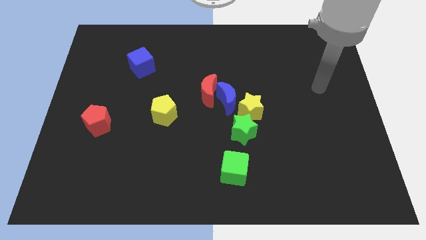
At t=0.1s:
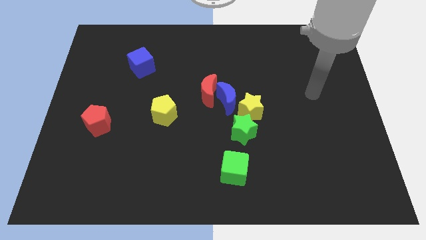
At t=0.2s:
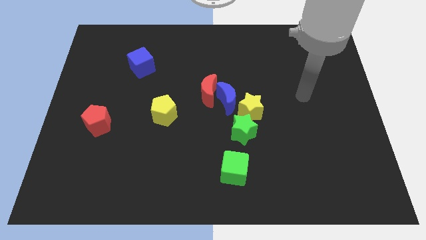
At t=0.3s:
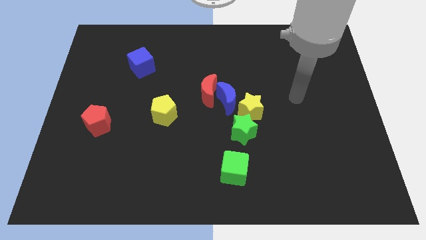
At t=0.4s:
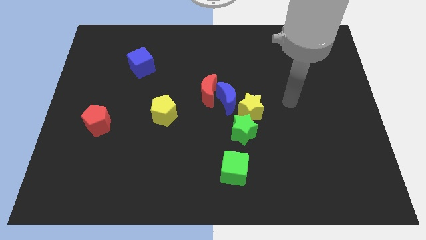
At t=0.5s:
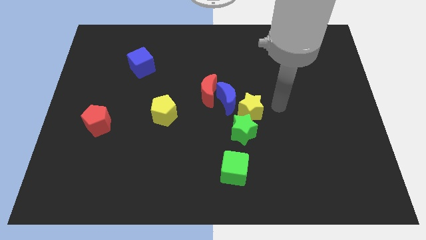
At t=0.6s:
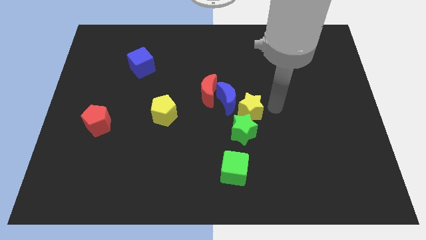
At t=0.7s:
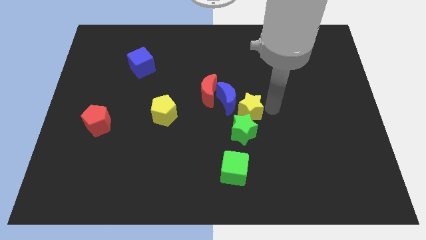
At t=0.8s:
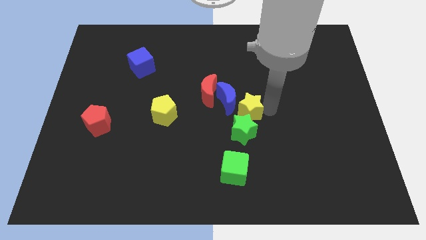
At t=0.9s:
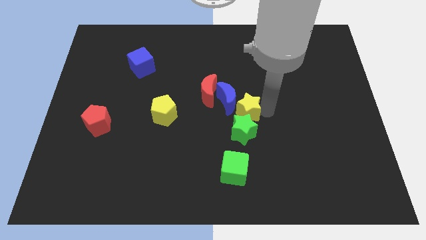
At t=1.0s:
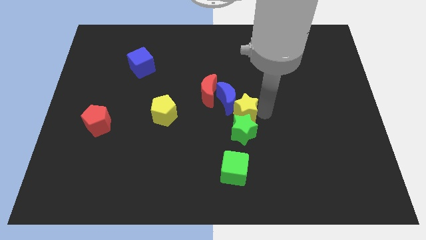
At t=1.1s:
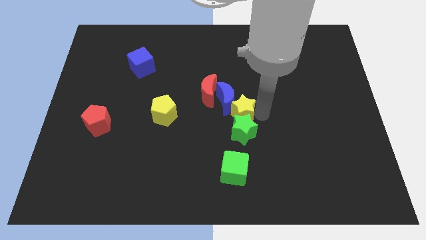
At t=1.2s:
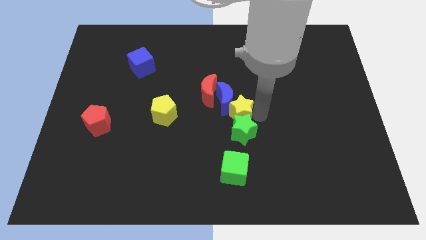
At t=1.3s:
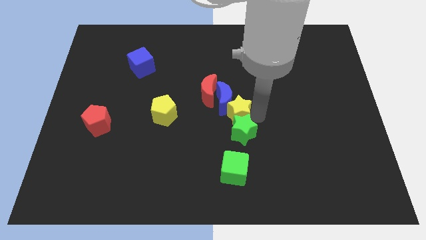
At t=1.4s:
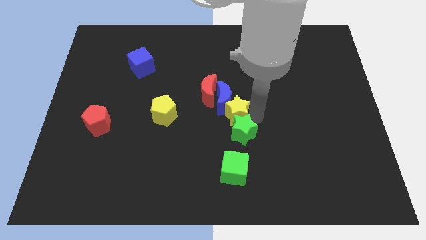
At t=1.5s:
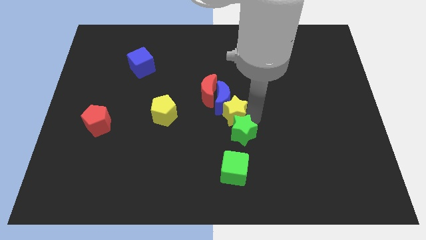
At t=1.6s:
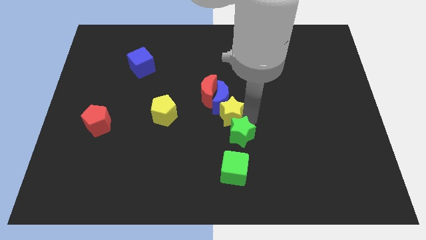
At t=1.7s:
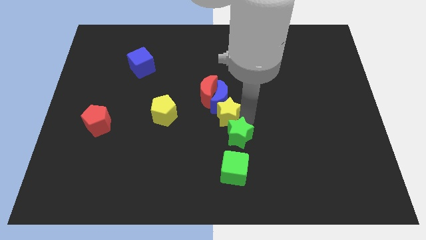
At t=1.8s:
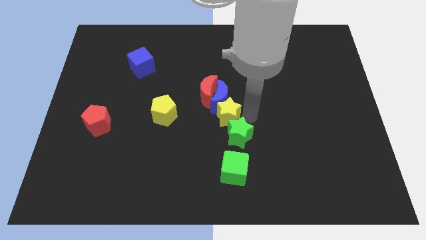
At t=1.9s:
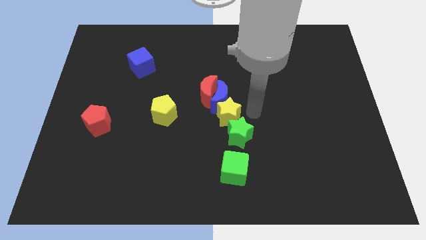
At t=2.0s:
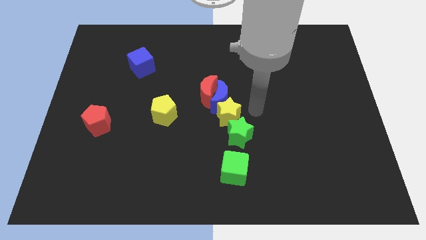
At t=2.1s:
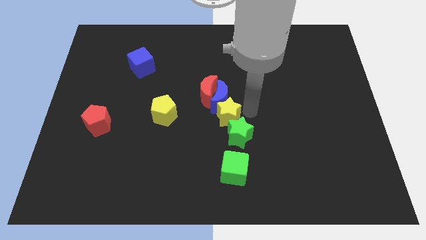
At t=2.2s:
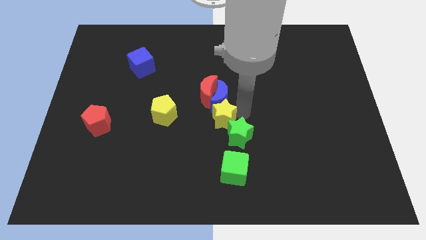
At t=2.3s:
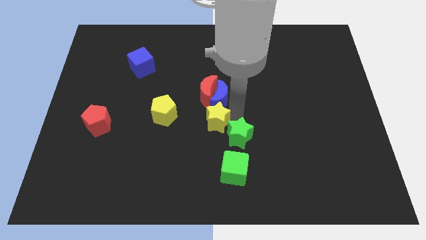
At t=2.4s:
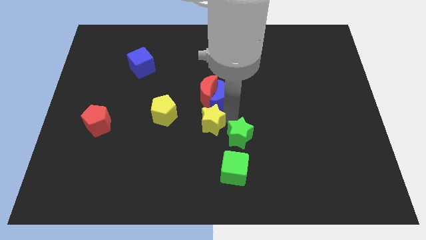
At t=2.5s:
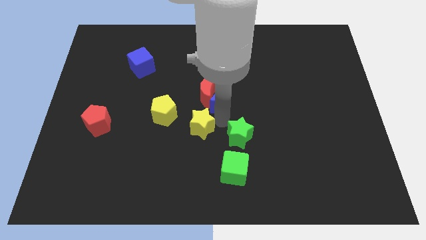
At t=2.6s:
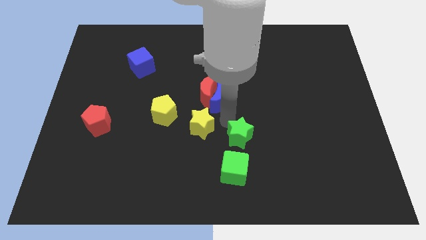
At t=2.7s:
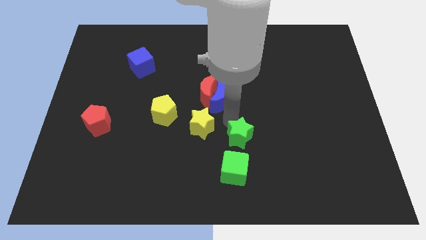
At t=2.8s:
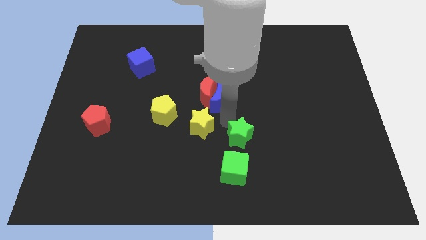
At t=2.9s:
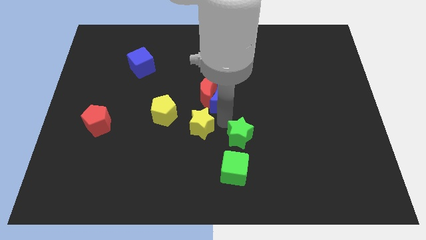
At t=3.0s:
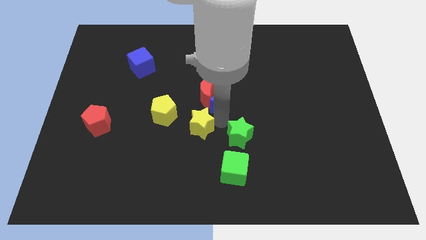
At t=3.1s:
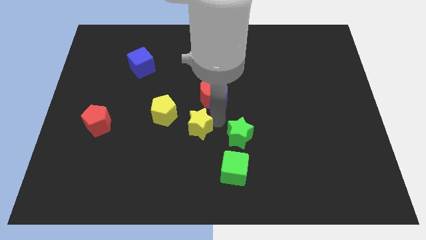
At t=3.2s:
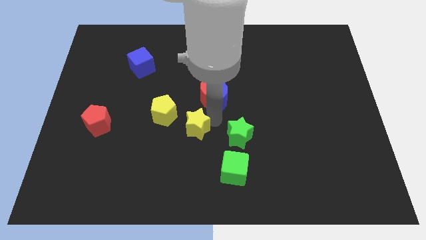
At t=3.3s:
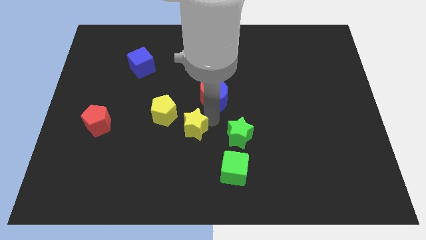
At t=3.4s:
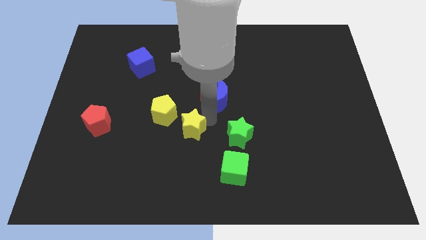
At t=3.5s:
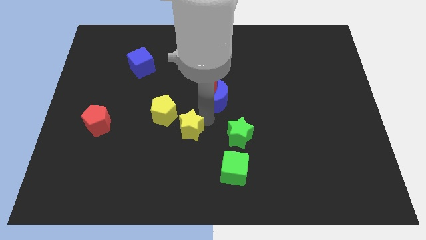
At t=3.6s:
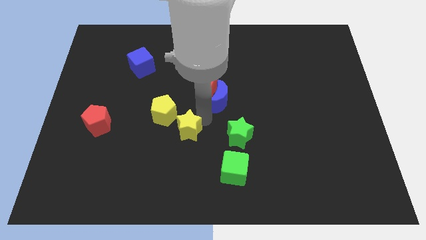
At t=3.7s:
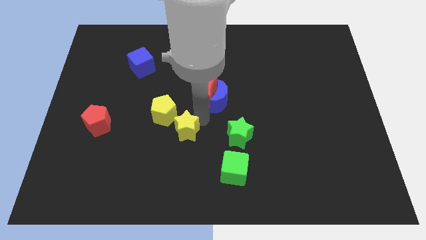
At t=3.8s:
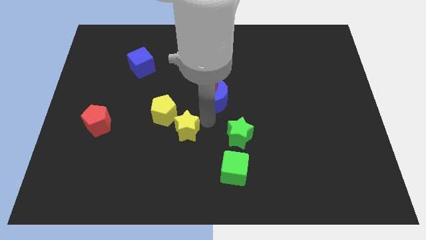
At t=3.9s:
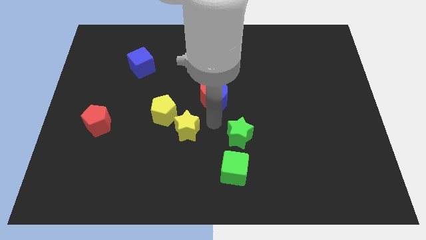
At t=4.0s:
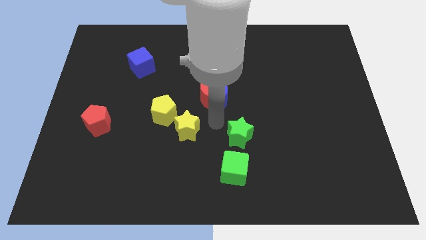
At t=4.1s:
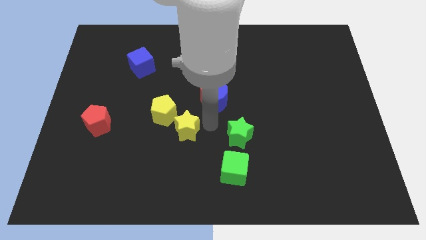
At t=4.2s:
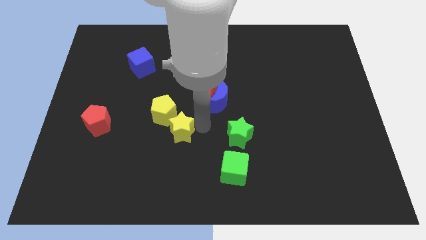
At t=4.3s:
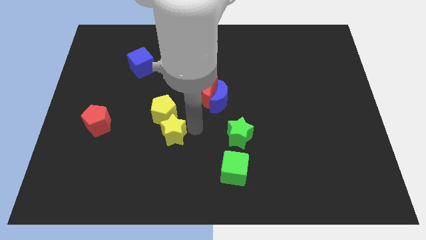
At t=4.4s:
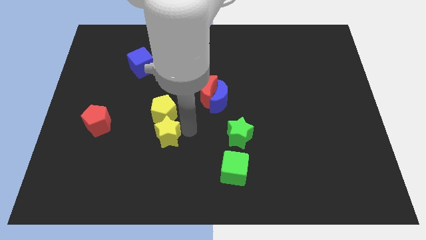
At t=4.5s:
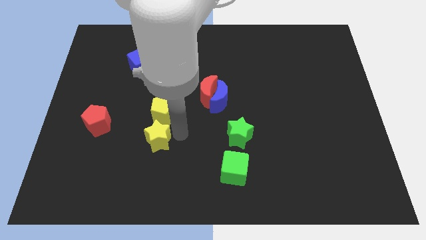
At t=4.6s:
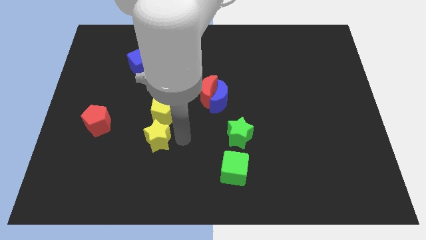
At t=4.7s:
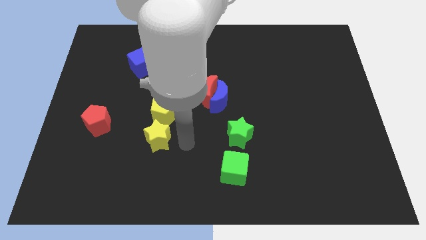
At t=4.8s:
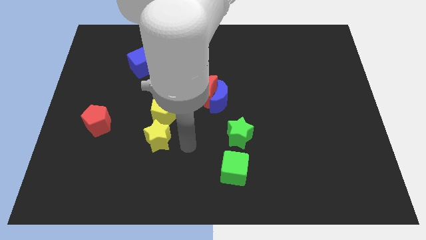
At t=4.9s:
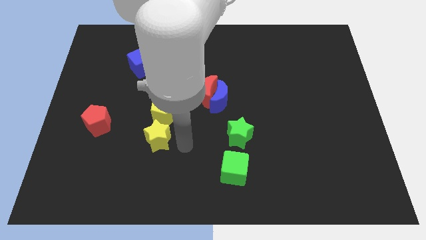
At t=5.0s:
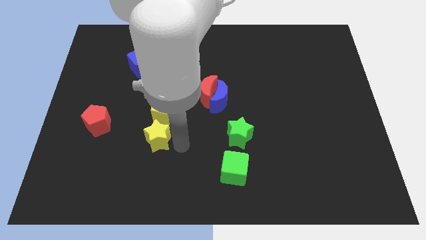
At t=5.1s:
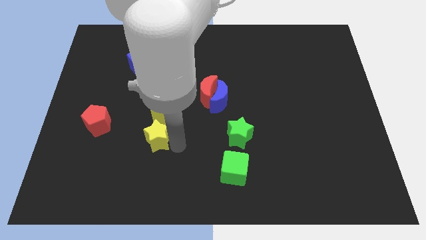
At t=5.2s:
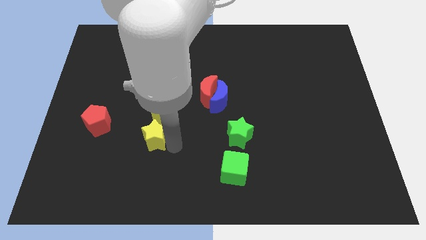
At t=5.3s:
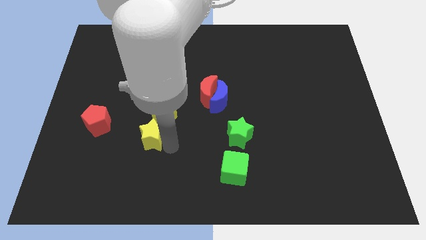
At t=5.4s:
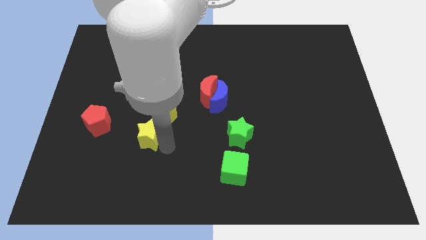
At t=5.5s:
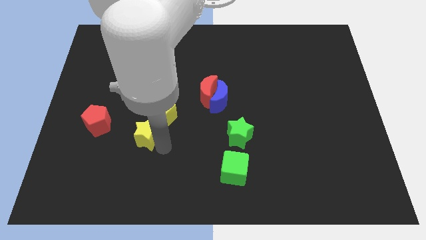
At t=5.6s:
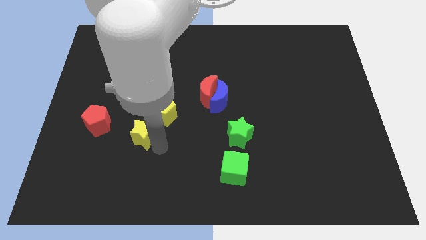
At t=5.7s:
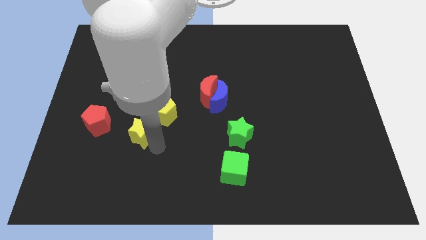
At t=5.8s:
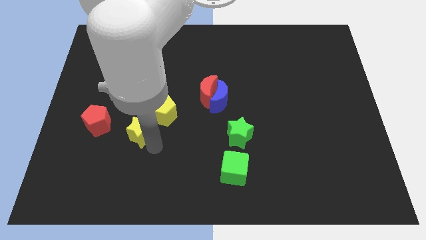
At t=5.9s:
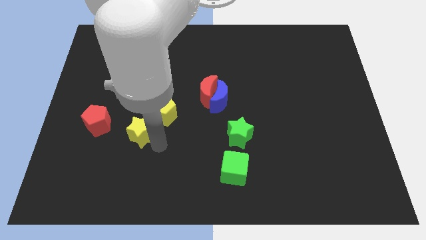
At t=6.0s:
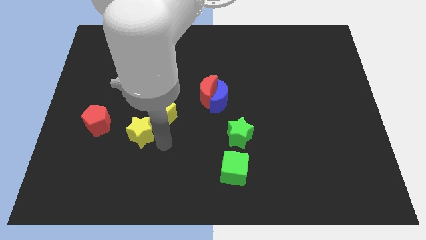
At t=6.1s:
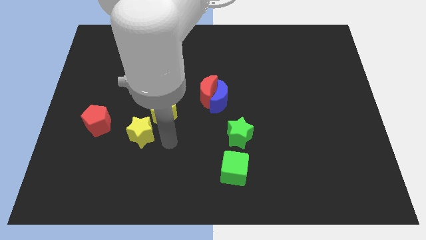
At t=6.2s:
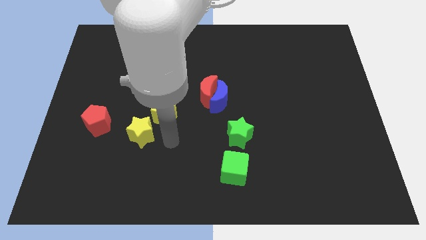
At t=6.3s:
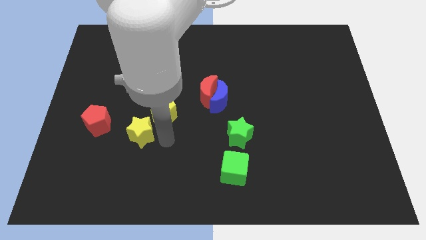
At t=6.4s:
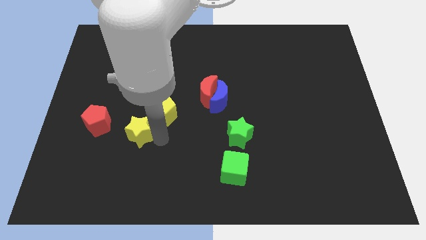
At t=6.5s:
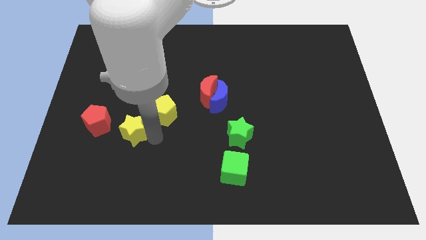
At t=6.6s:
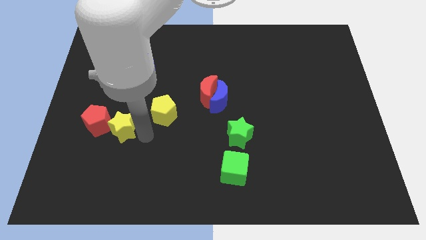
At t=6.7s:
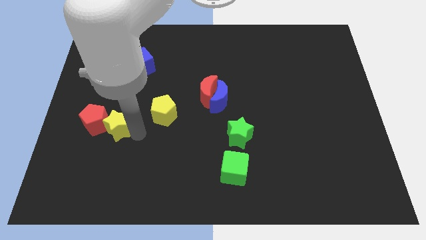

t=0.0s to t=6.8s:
slide the yellow star to the red pentagon
